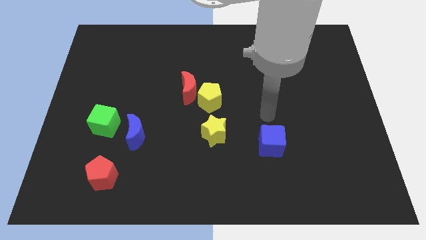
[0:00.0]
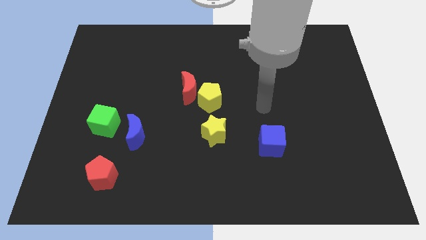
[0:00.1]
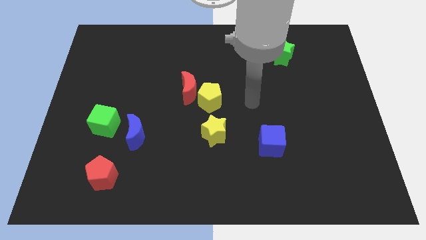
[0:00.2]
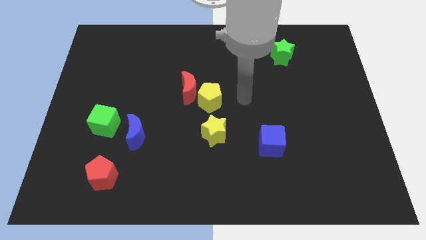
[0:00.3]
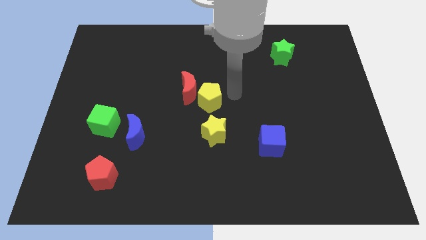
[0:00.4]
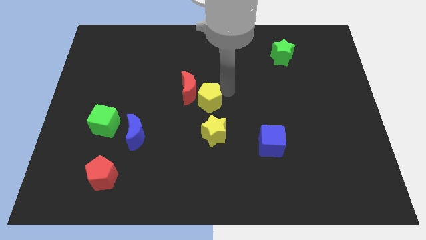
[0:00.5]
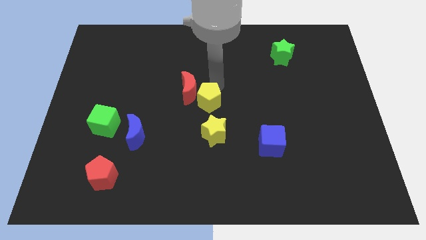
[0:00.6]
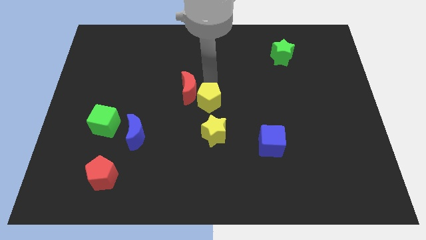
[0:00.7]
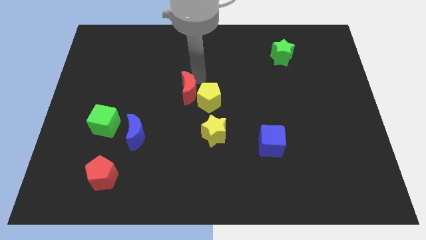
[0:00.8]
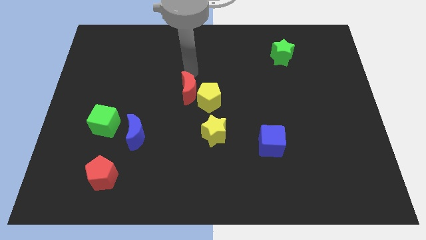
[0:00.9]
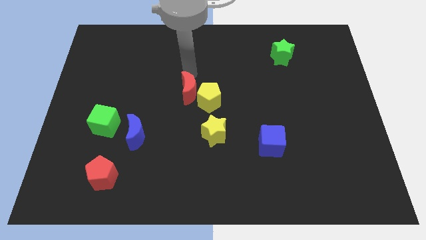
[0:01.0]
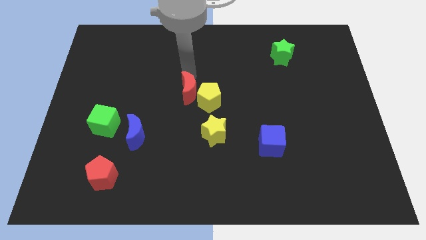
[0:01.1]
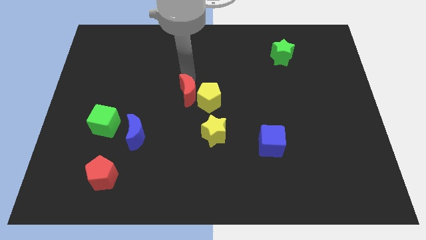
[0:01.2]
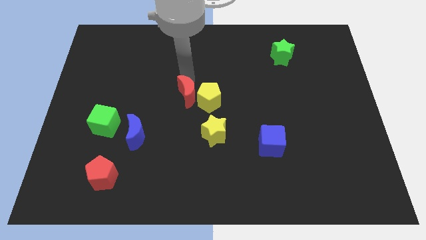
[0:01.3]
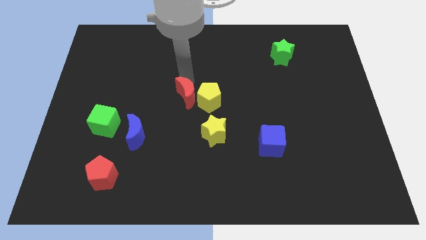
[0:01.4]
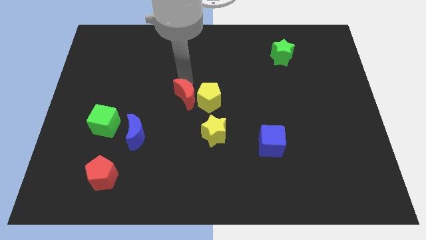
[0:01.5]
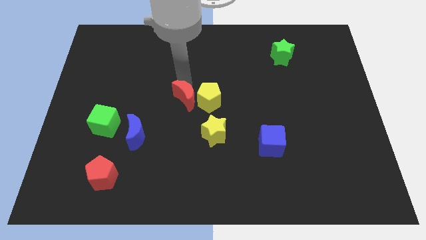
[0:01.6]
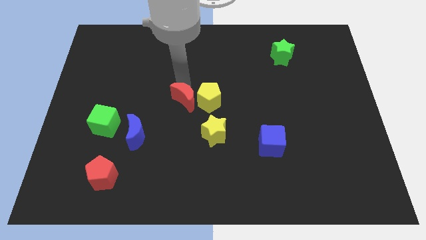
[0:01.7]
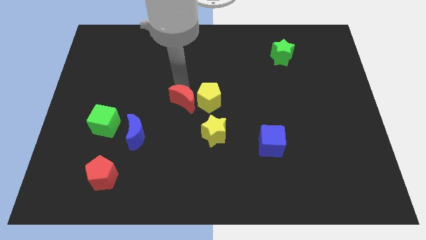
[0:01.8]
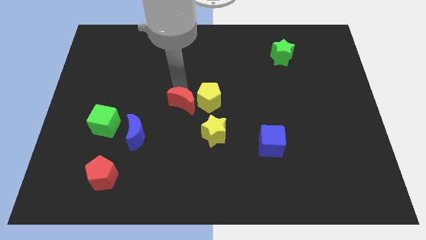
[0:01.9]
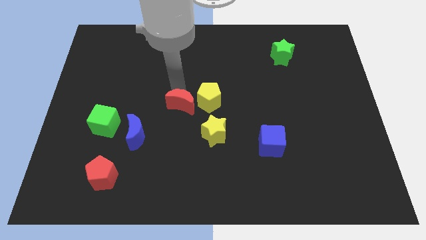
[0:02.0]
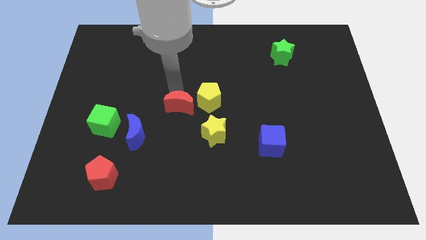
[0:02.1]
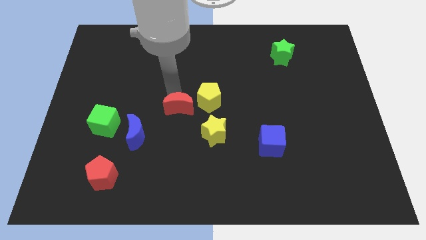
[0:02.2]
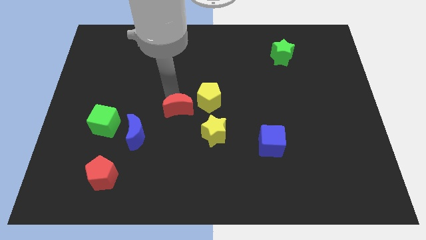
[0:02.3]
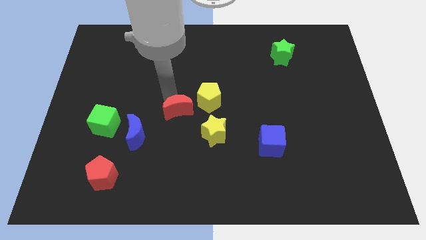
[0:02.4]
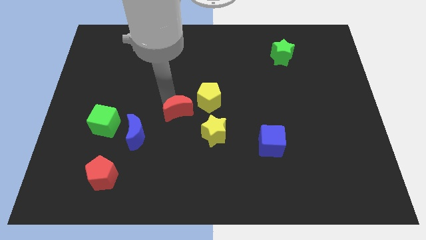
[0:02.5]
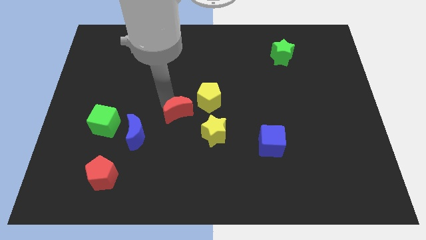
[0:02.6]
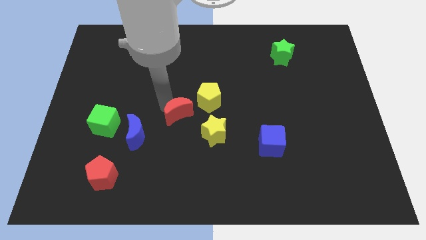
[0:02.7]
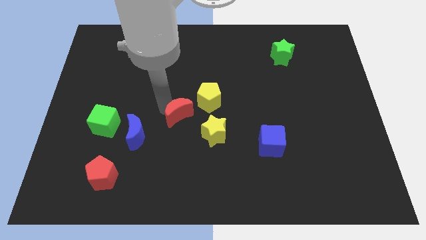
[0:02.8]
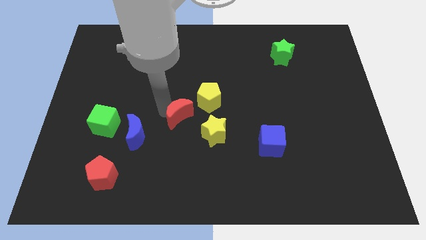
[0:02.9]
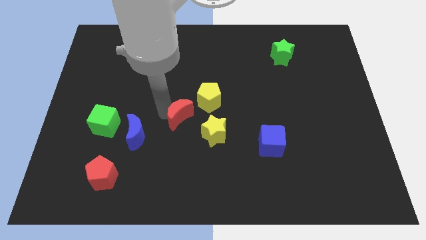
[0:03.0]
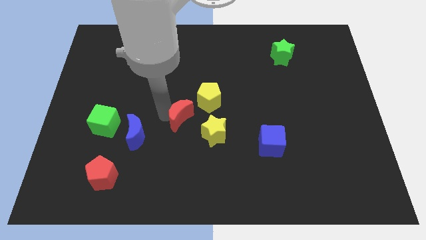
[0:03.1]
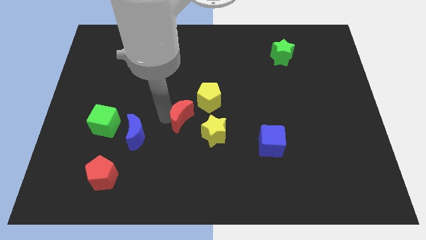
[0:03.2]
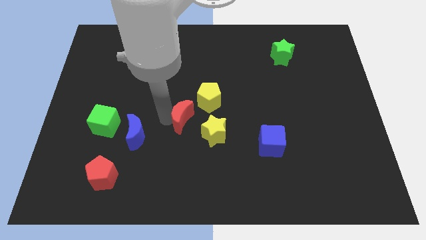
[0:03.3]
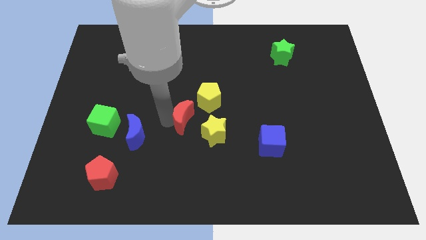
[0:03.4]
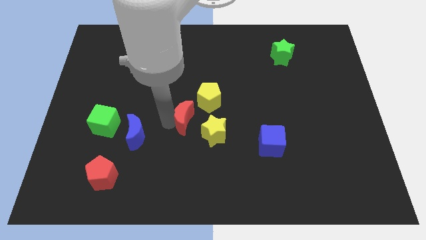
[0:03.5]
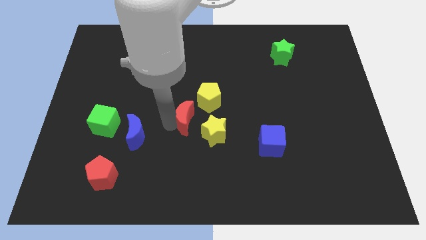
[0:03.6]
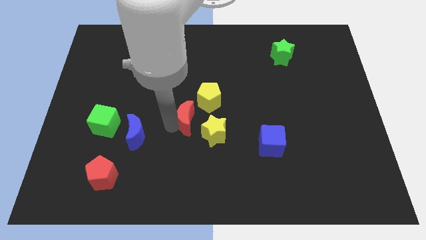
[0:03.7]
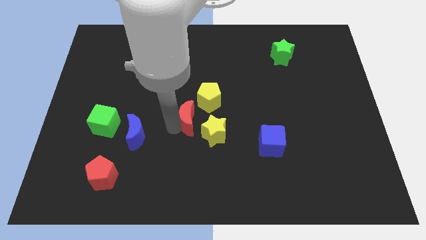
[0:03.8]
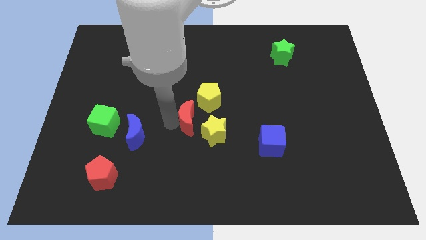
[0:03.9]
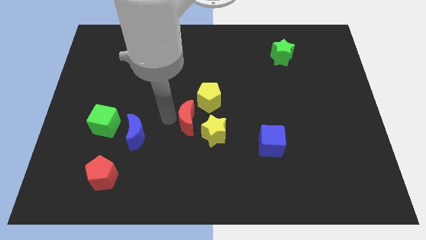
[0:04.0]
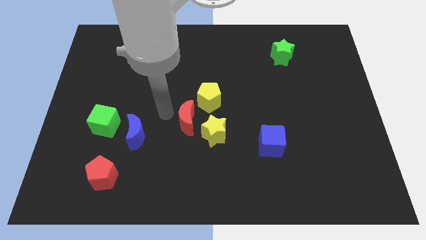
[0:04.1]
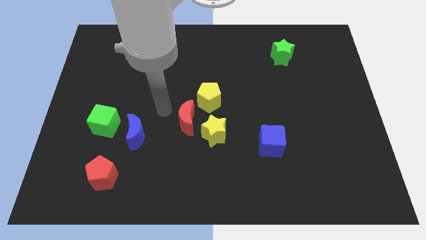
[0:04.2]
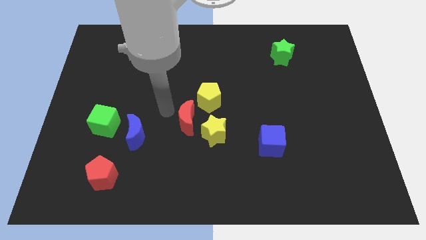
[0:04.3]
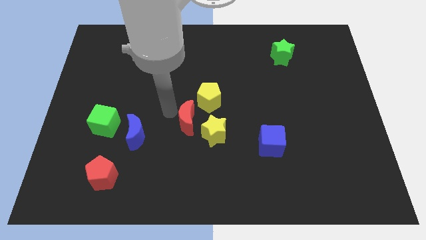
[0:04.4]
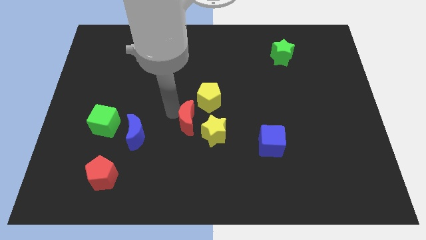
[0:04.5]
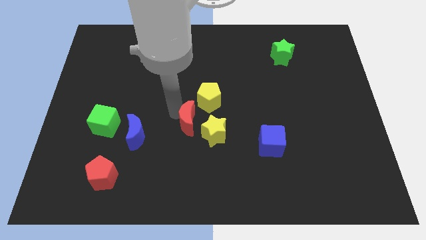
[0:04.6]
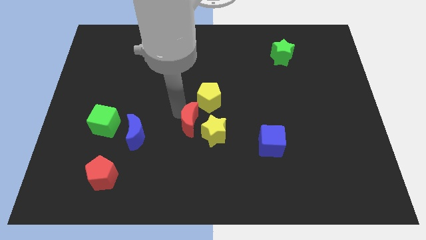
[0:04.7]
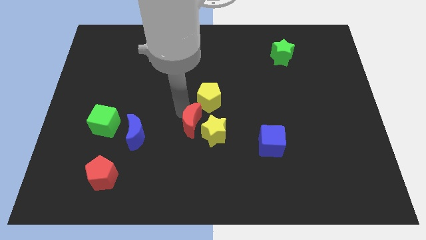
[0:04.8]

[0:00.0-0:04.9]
push the red moon next to the yellow star

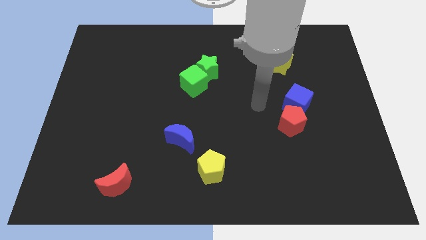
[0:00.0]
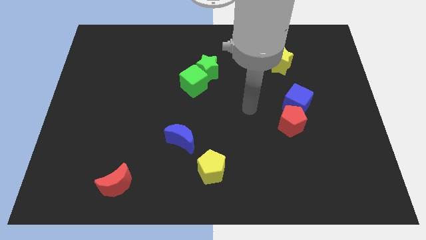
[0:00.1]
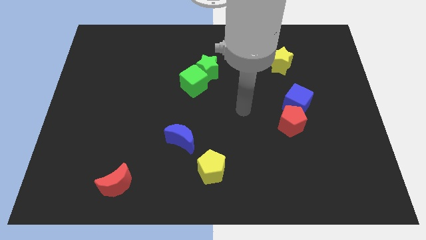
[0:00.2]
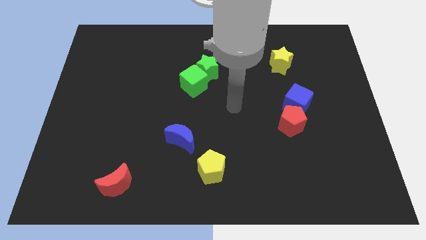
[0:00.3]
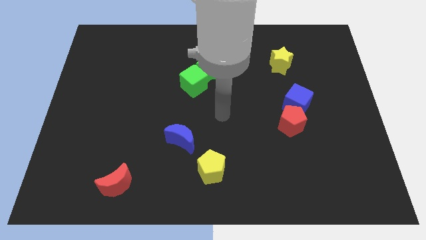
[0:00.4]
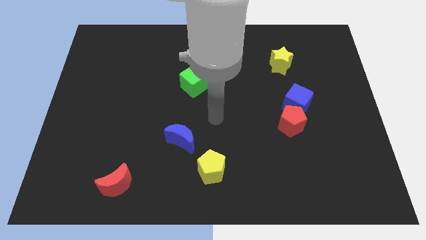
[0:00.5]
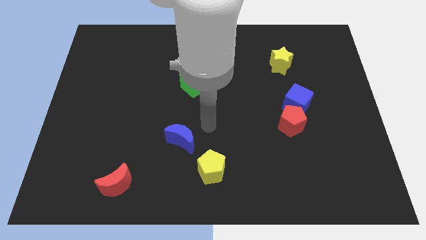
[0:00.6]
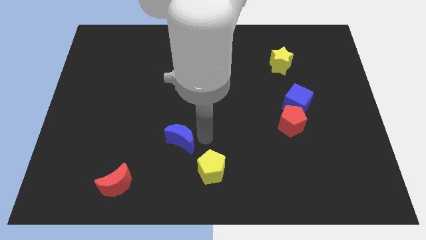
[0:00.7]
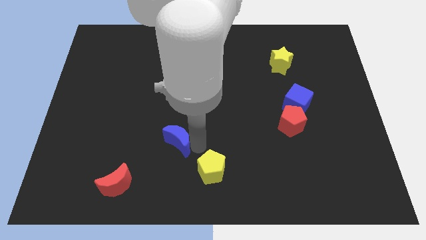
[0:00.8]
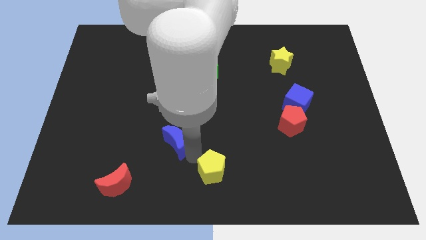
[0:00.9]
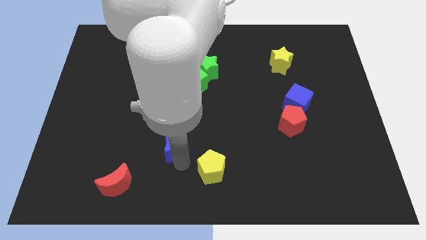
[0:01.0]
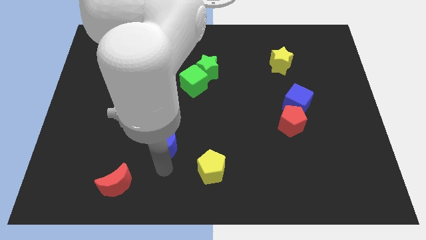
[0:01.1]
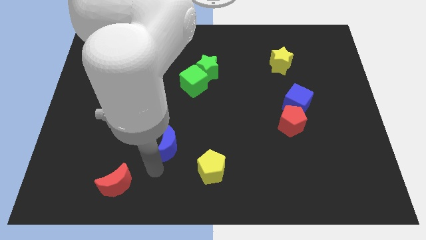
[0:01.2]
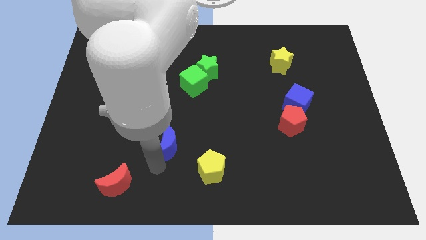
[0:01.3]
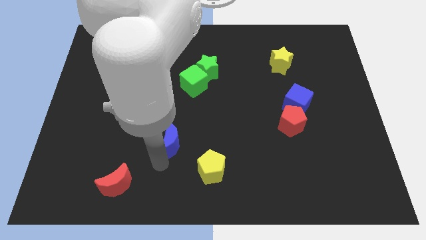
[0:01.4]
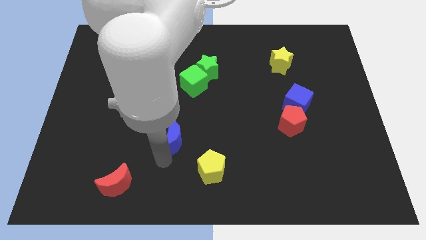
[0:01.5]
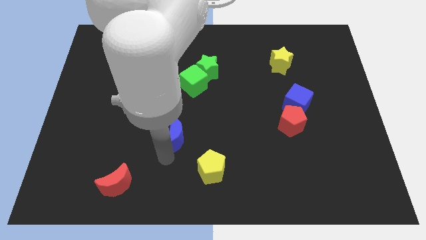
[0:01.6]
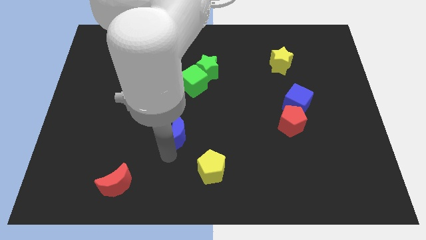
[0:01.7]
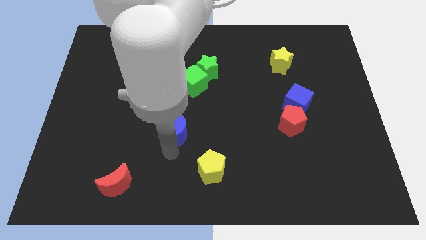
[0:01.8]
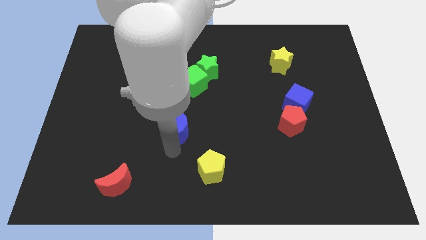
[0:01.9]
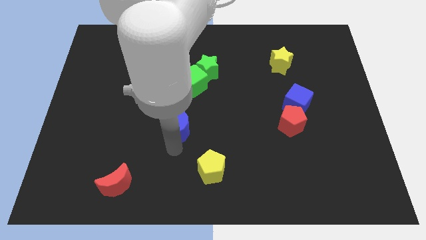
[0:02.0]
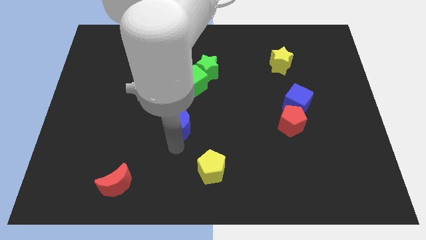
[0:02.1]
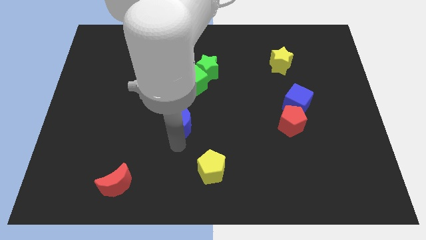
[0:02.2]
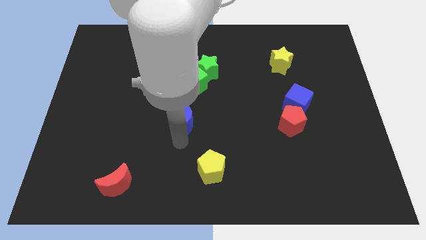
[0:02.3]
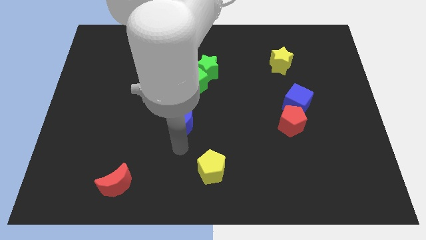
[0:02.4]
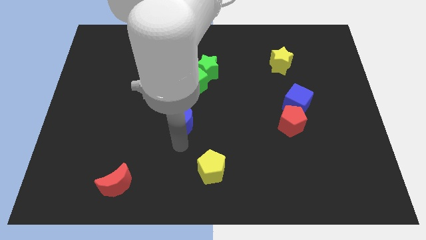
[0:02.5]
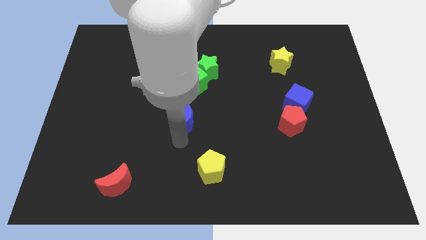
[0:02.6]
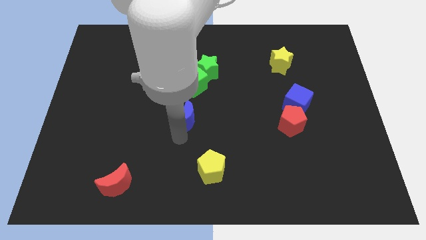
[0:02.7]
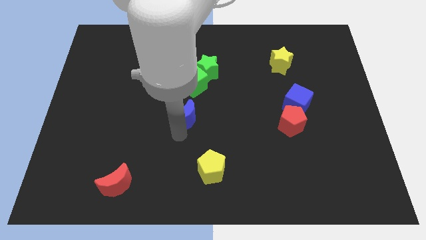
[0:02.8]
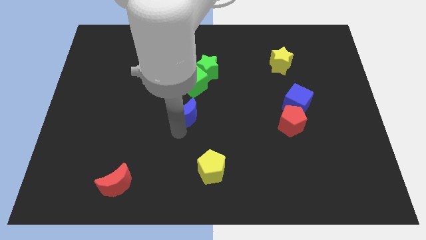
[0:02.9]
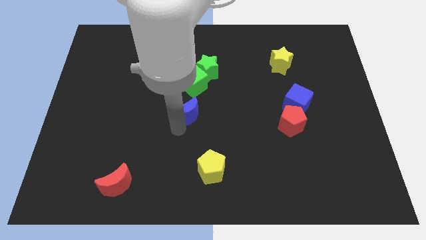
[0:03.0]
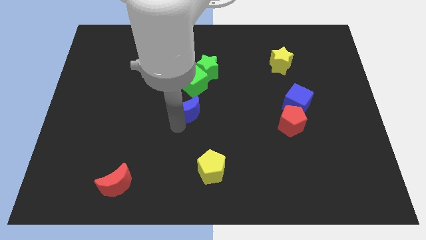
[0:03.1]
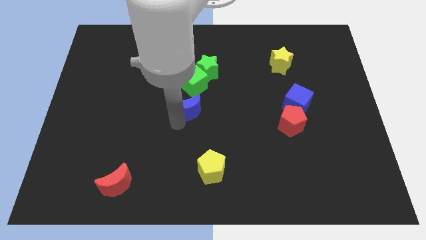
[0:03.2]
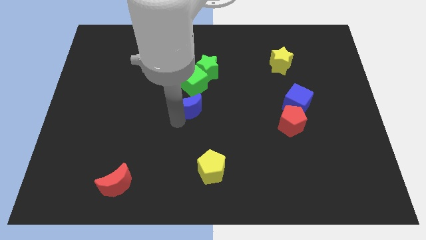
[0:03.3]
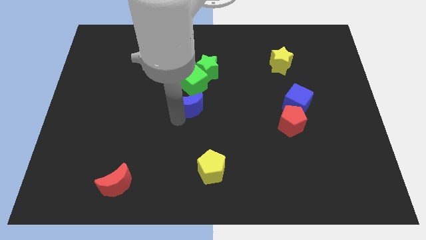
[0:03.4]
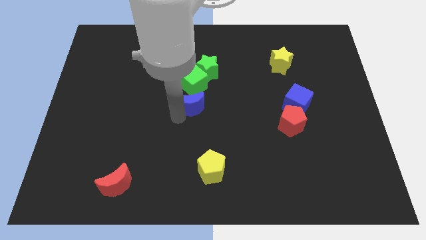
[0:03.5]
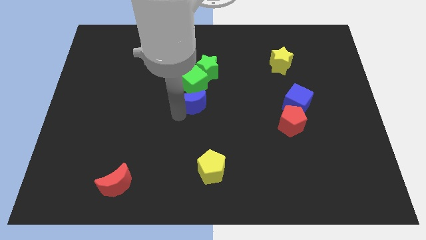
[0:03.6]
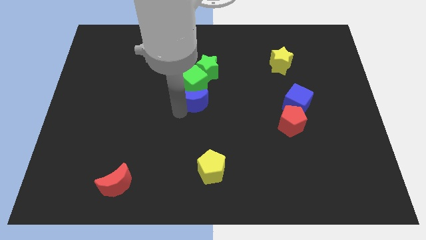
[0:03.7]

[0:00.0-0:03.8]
move the blue moon next to the green cube
